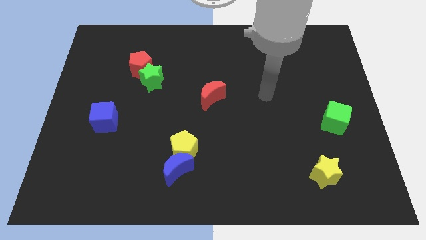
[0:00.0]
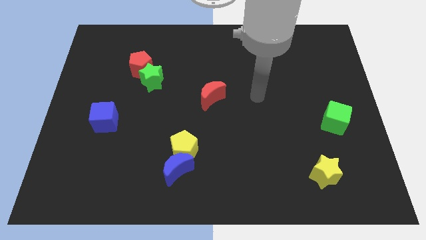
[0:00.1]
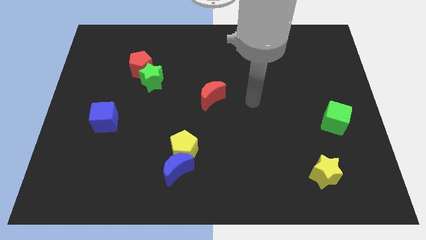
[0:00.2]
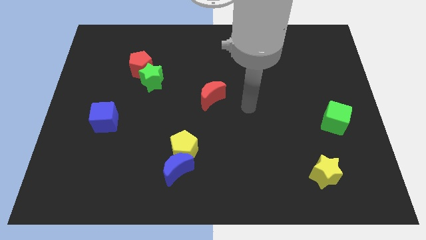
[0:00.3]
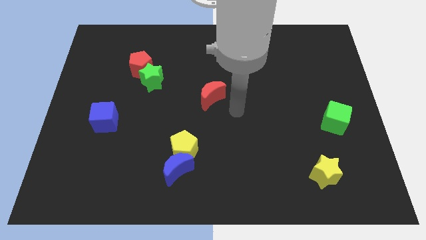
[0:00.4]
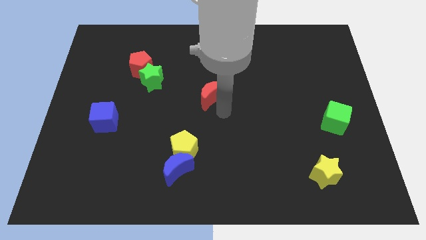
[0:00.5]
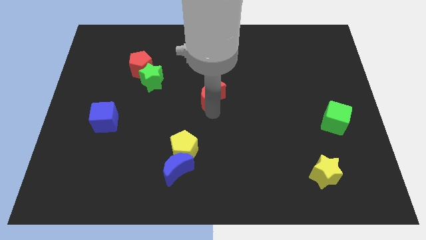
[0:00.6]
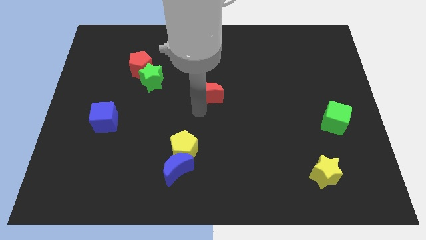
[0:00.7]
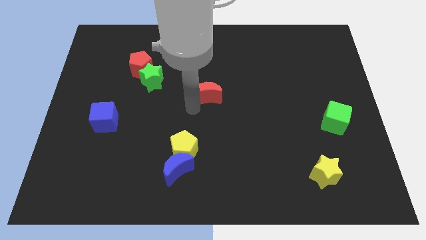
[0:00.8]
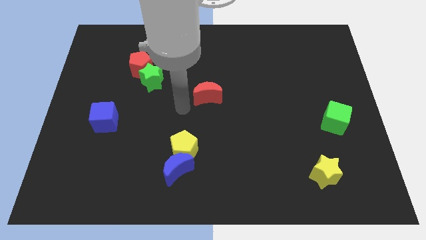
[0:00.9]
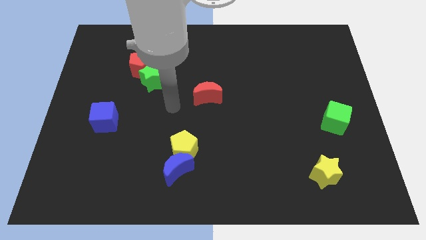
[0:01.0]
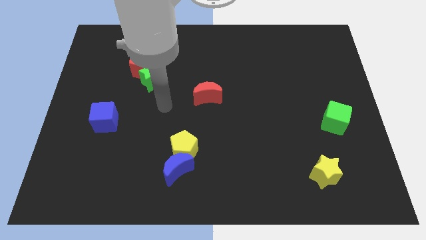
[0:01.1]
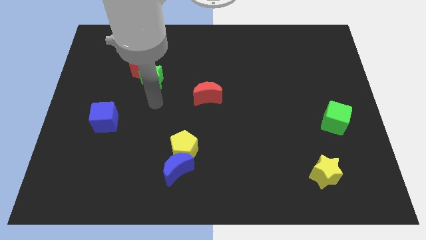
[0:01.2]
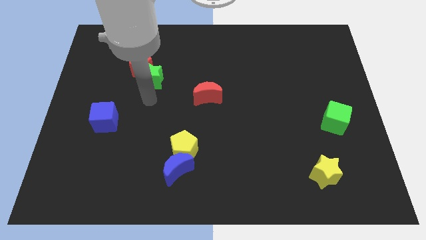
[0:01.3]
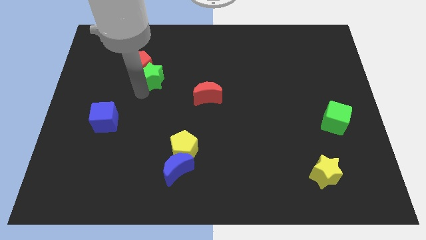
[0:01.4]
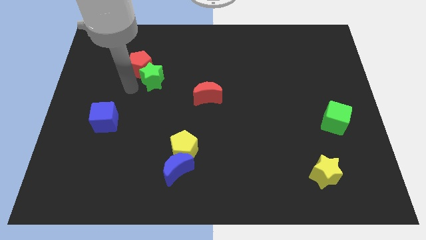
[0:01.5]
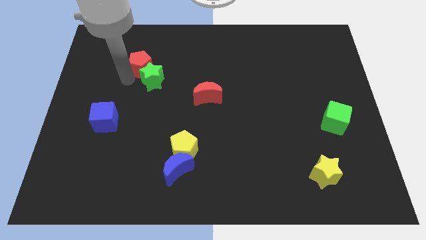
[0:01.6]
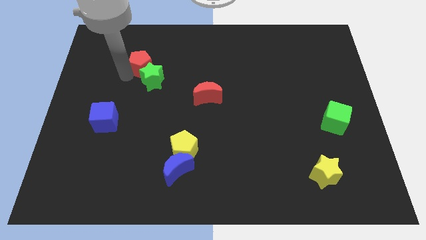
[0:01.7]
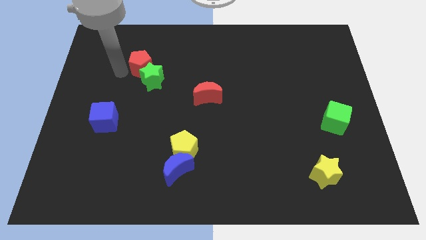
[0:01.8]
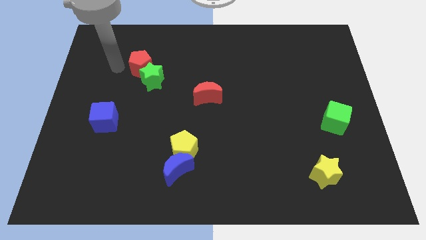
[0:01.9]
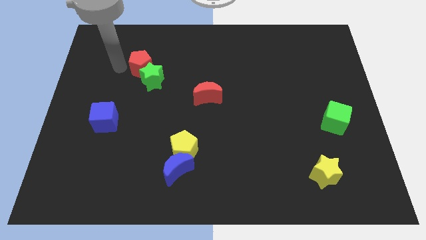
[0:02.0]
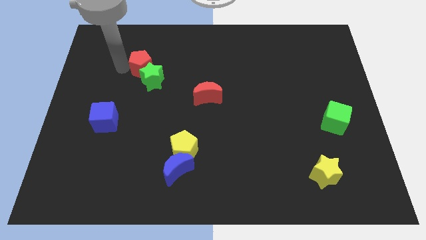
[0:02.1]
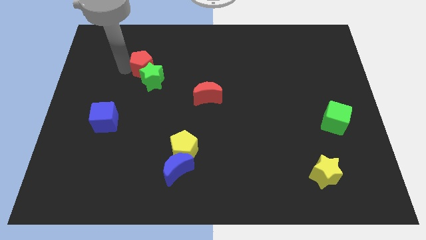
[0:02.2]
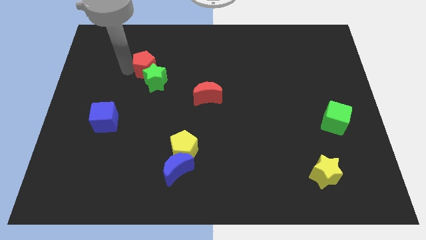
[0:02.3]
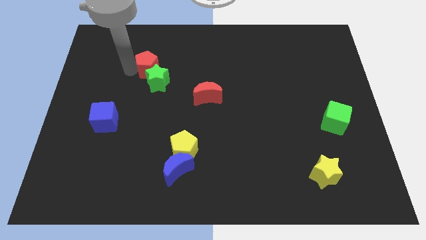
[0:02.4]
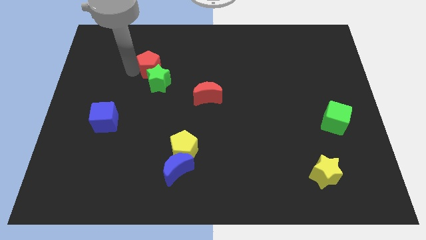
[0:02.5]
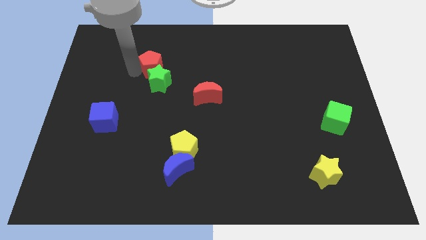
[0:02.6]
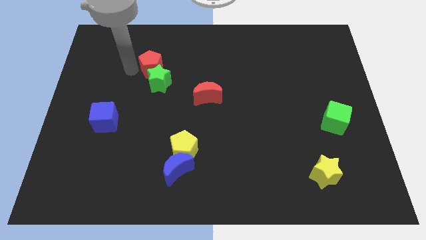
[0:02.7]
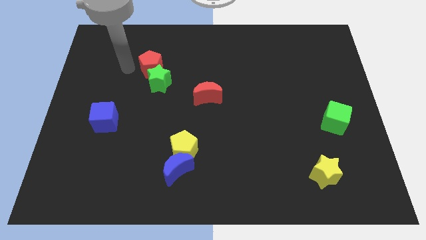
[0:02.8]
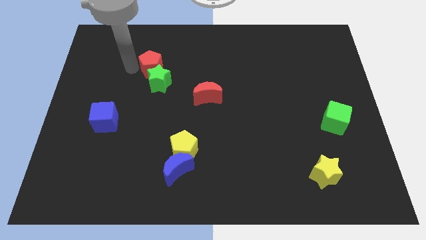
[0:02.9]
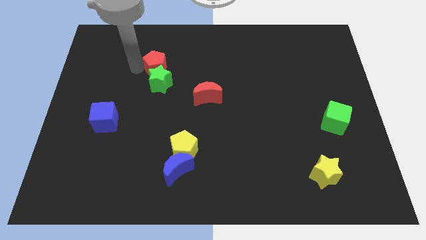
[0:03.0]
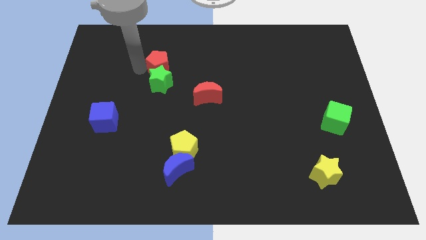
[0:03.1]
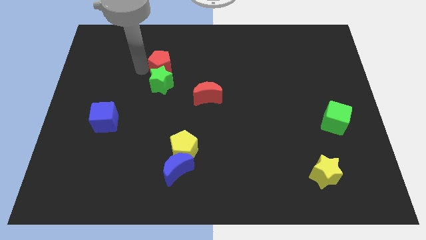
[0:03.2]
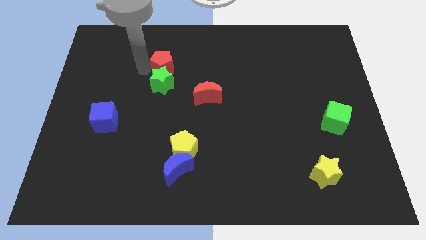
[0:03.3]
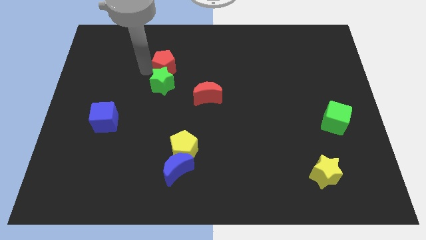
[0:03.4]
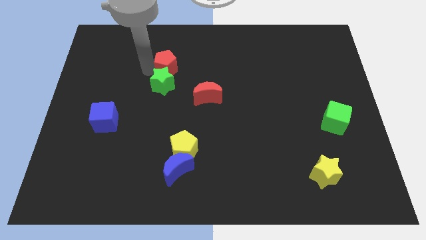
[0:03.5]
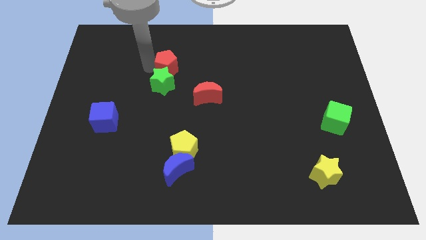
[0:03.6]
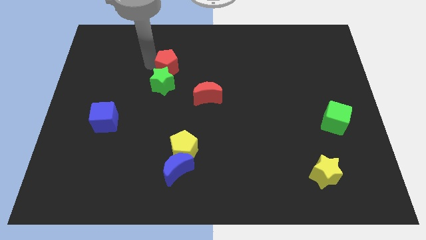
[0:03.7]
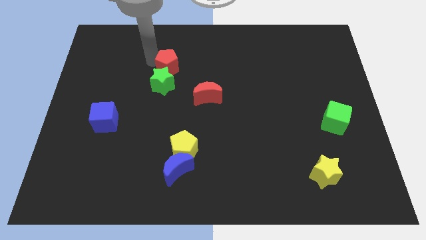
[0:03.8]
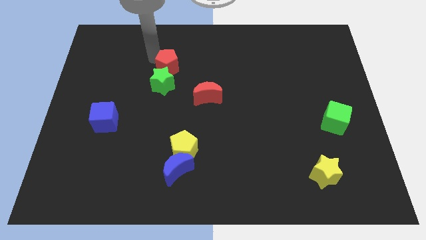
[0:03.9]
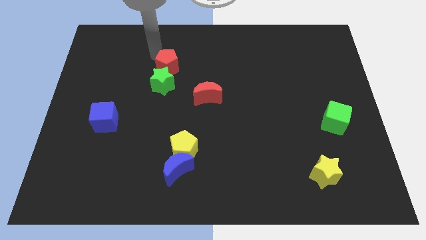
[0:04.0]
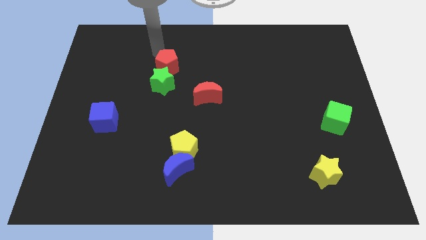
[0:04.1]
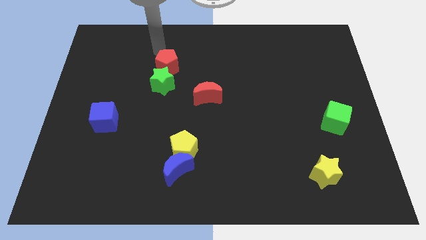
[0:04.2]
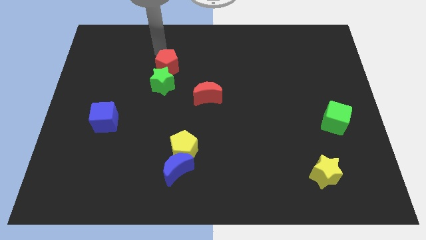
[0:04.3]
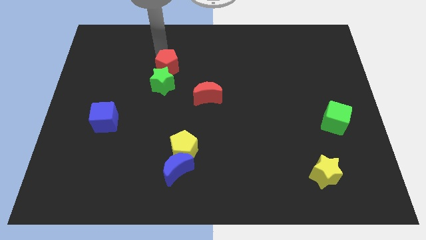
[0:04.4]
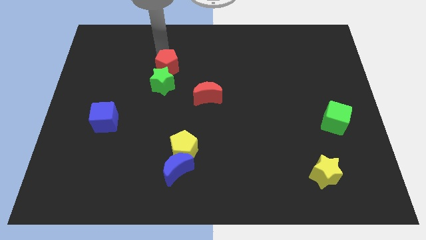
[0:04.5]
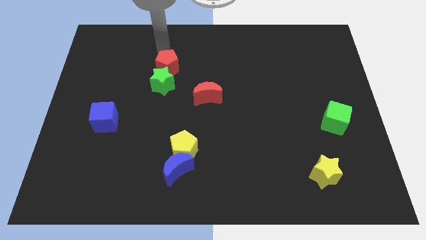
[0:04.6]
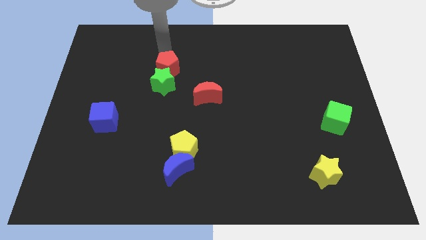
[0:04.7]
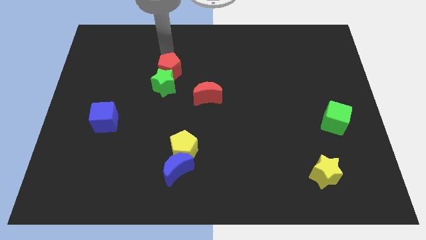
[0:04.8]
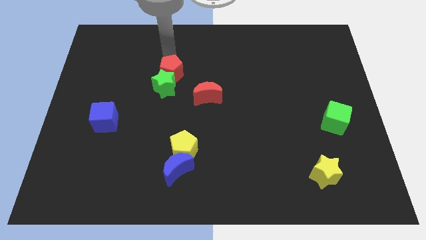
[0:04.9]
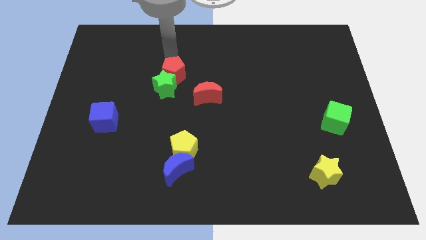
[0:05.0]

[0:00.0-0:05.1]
push the red pentagon a little bit diagonally down and right

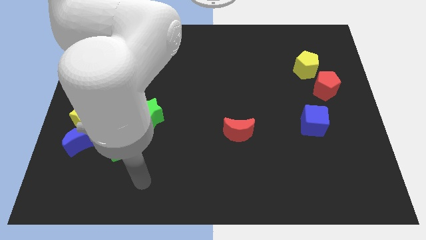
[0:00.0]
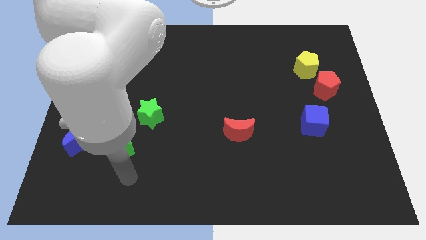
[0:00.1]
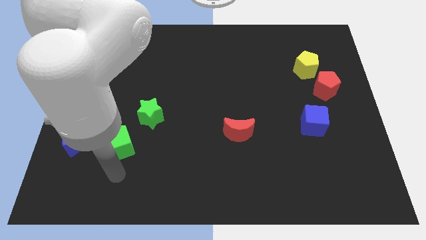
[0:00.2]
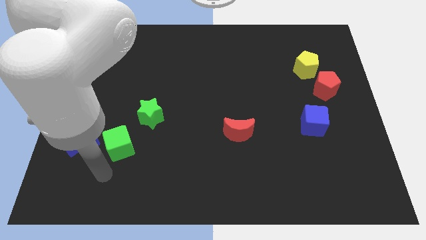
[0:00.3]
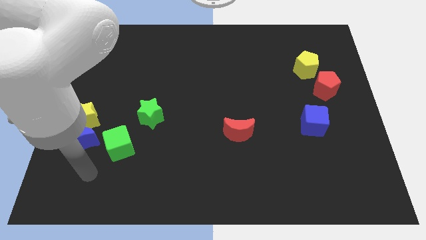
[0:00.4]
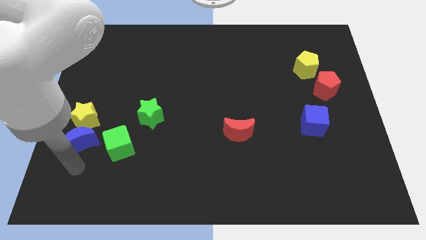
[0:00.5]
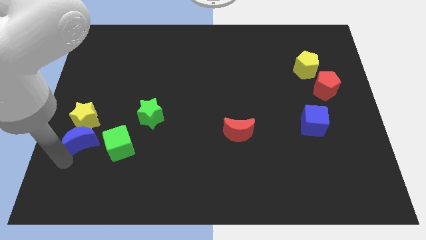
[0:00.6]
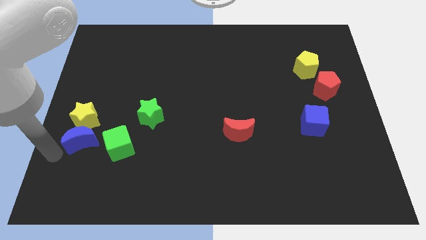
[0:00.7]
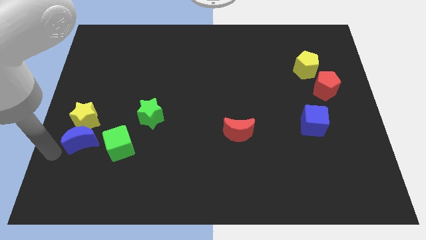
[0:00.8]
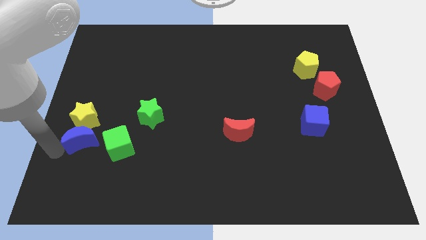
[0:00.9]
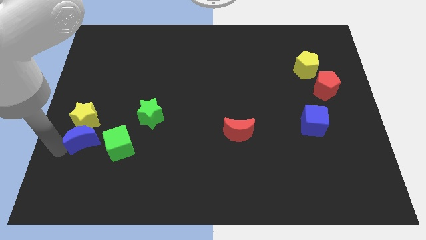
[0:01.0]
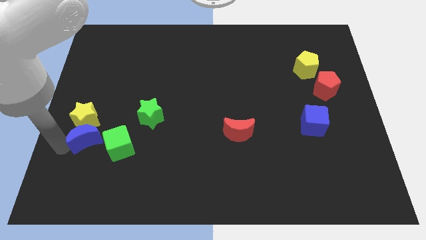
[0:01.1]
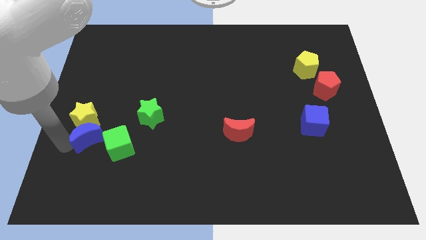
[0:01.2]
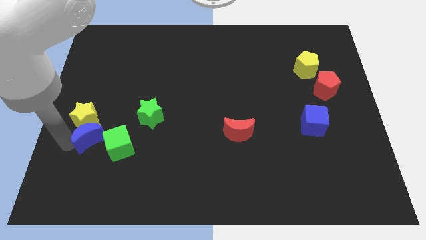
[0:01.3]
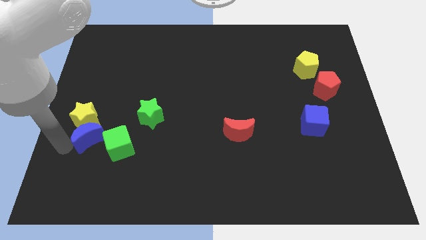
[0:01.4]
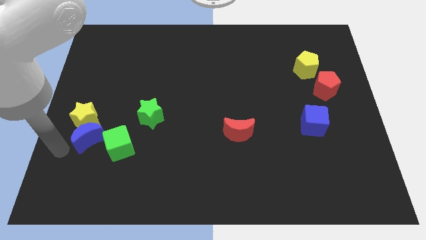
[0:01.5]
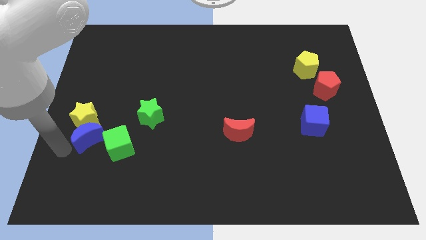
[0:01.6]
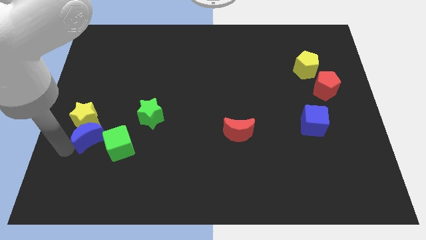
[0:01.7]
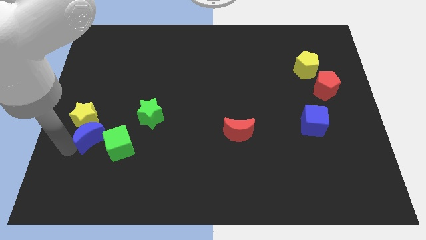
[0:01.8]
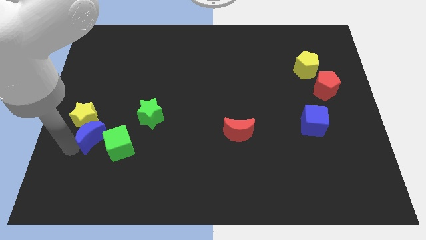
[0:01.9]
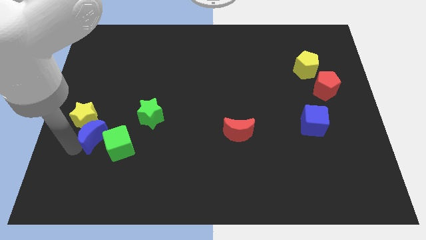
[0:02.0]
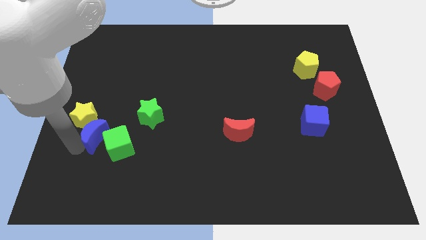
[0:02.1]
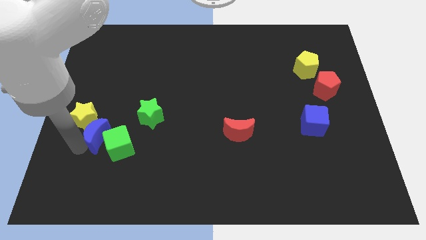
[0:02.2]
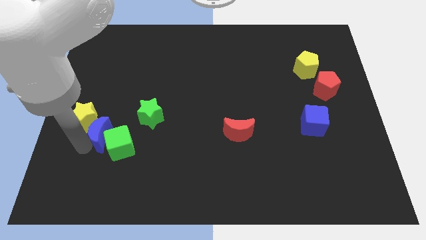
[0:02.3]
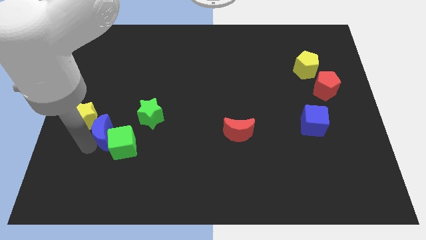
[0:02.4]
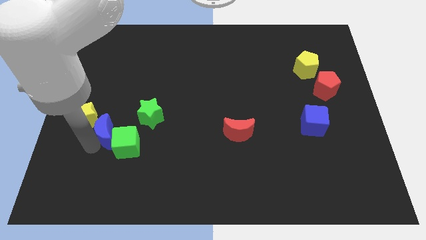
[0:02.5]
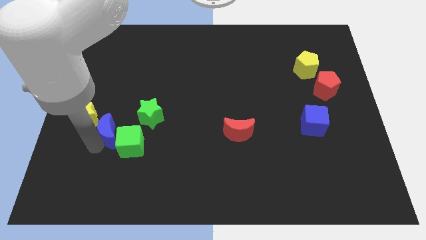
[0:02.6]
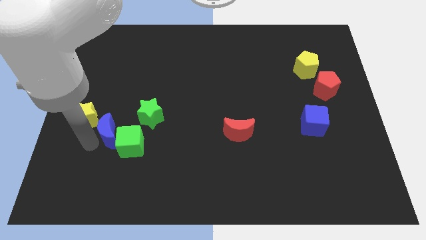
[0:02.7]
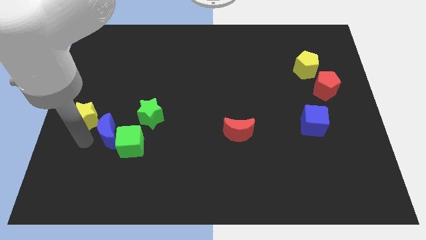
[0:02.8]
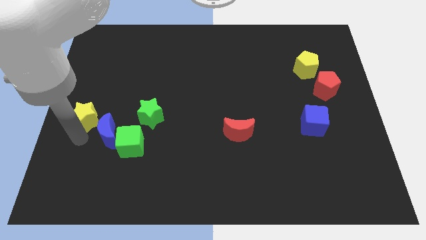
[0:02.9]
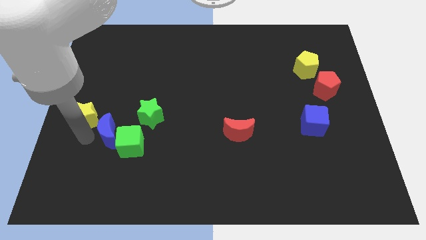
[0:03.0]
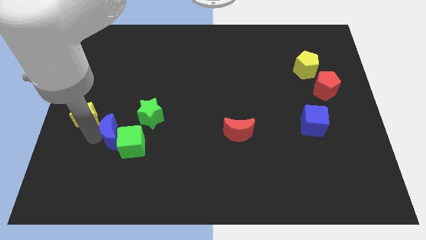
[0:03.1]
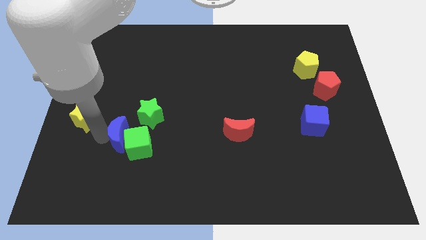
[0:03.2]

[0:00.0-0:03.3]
push the blue moon a little bit right
